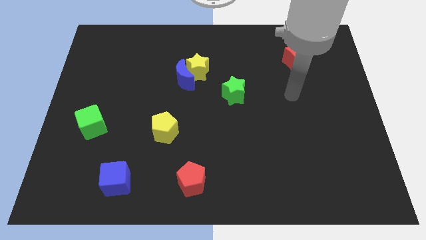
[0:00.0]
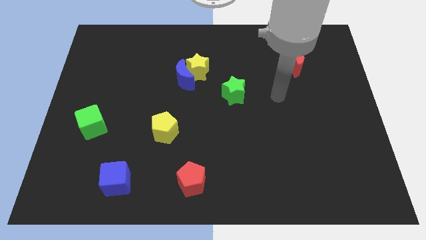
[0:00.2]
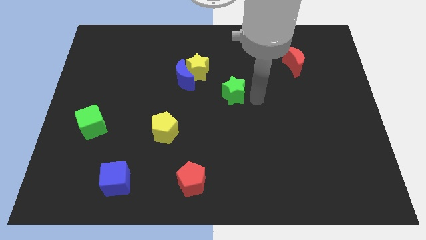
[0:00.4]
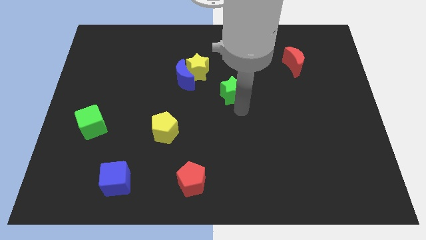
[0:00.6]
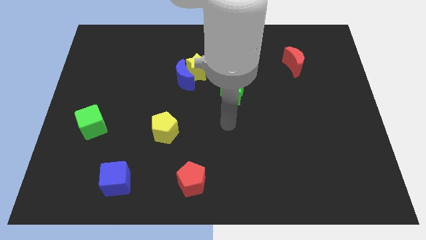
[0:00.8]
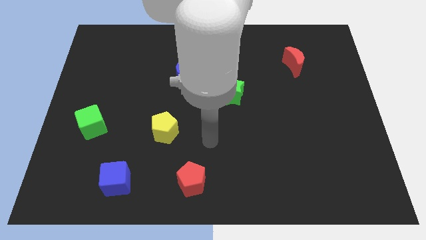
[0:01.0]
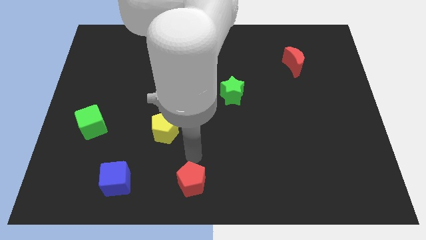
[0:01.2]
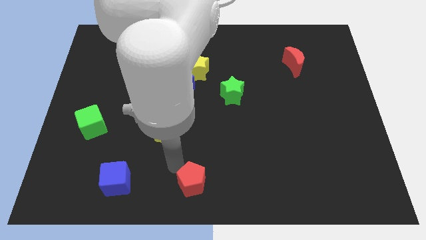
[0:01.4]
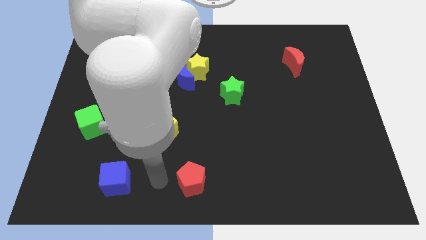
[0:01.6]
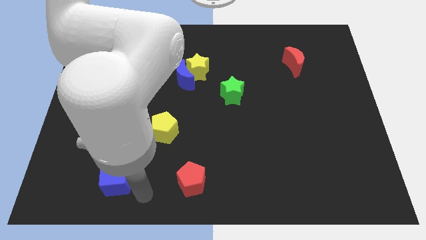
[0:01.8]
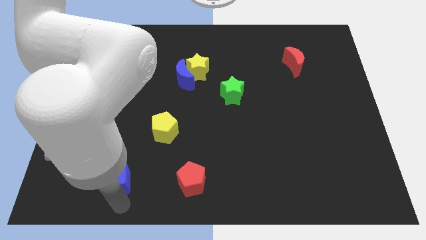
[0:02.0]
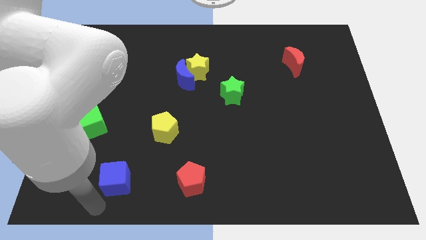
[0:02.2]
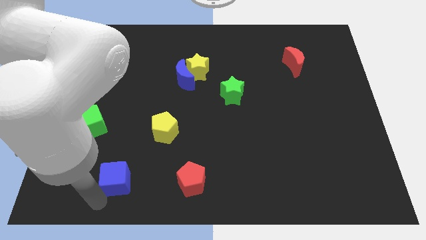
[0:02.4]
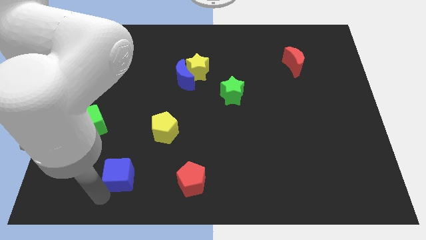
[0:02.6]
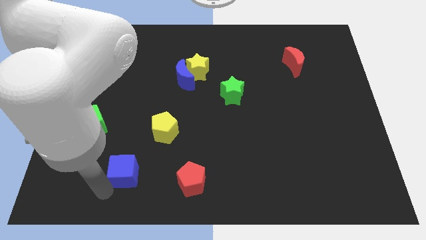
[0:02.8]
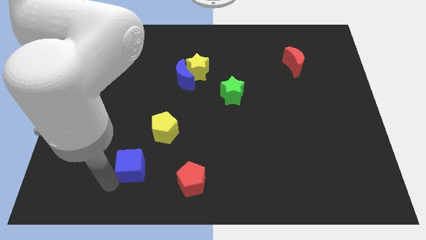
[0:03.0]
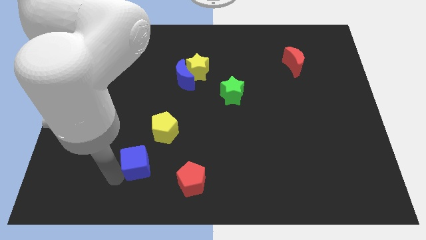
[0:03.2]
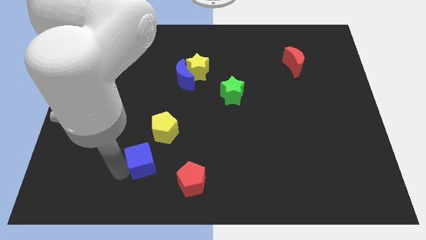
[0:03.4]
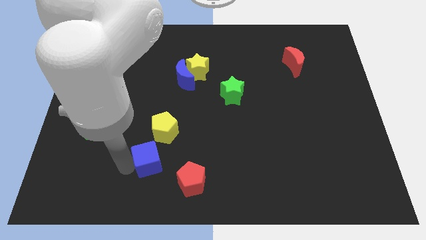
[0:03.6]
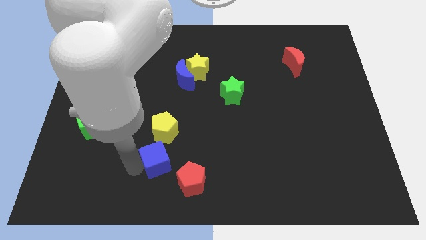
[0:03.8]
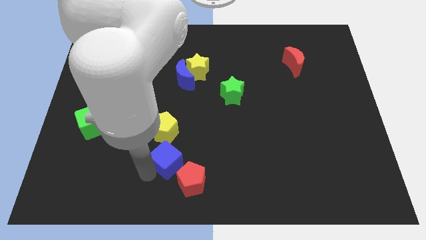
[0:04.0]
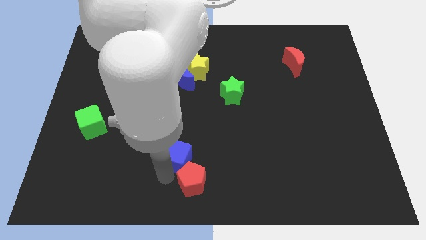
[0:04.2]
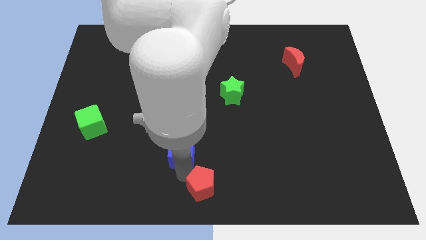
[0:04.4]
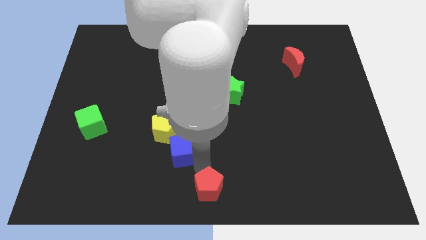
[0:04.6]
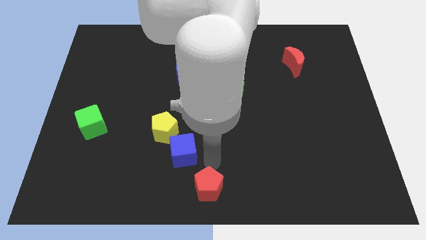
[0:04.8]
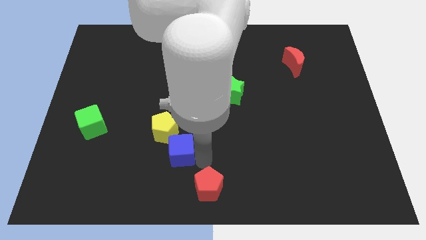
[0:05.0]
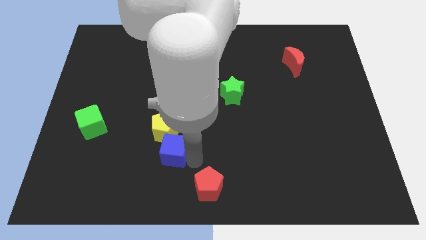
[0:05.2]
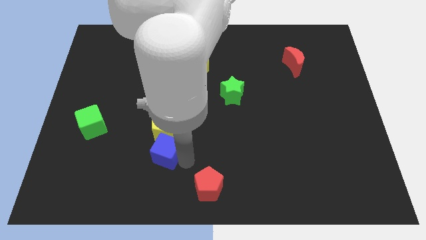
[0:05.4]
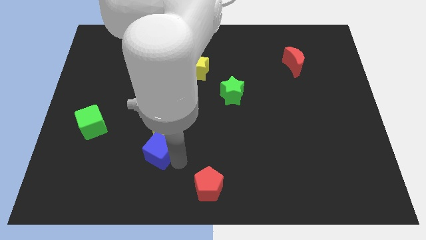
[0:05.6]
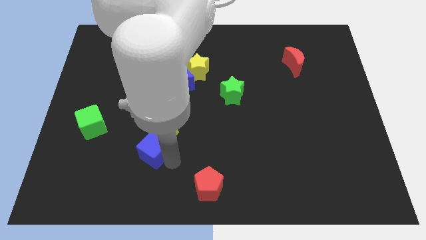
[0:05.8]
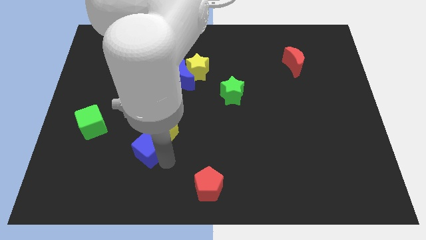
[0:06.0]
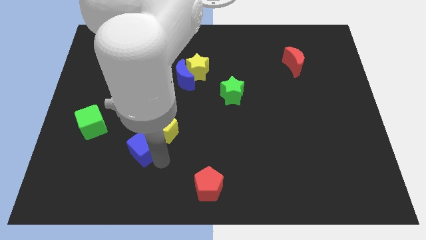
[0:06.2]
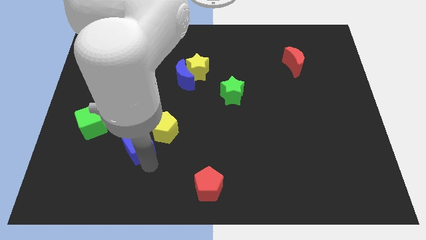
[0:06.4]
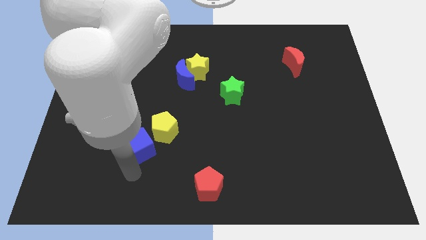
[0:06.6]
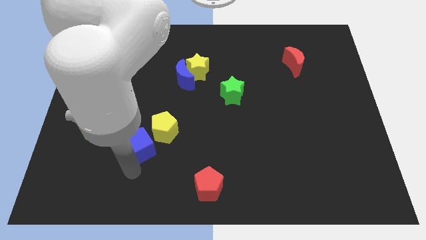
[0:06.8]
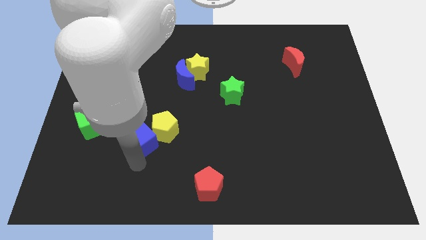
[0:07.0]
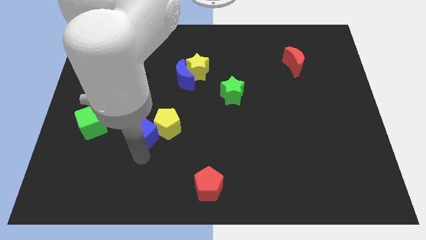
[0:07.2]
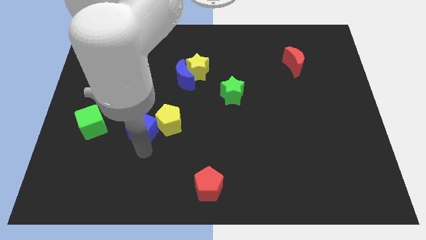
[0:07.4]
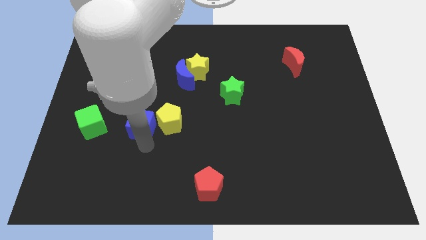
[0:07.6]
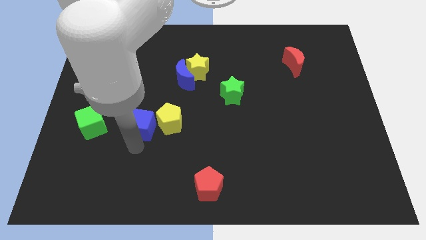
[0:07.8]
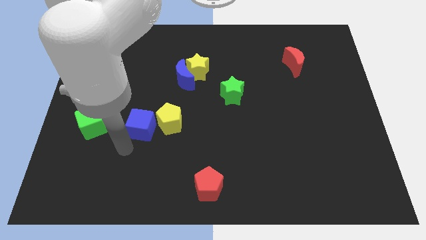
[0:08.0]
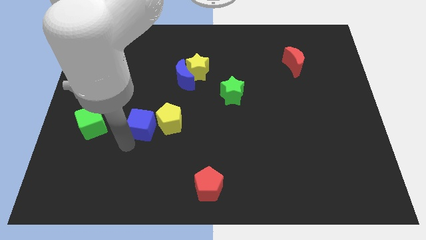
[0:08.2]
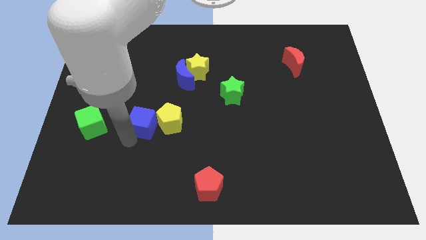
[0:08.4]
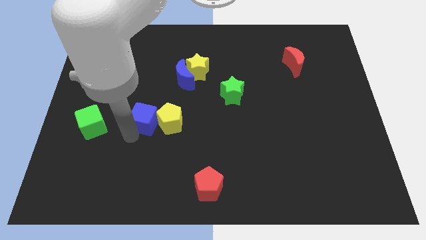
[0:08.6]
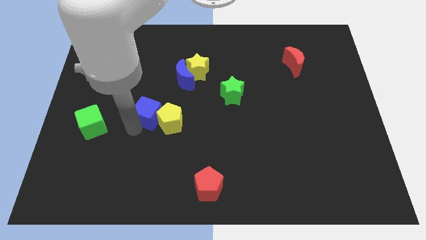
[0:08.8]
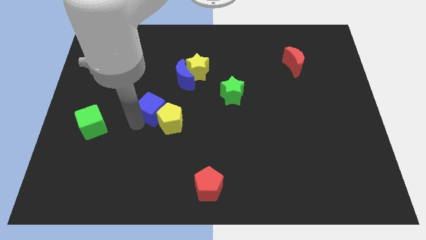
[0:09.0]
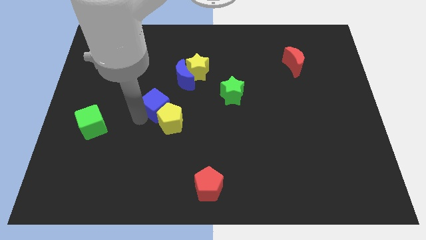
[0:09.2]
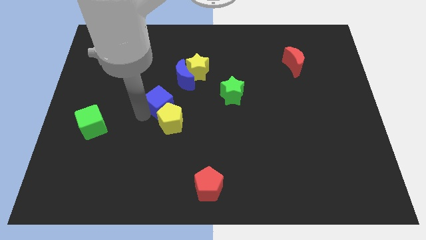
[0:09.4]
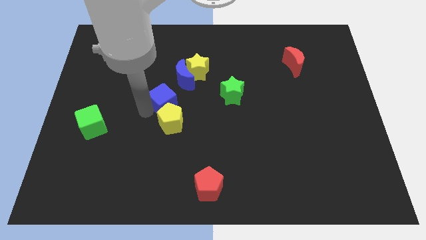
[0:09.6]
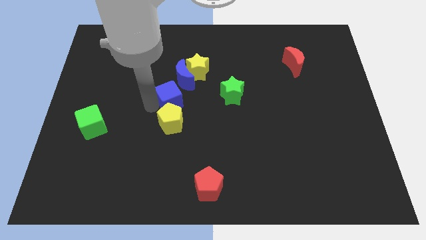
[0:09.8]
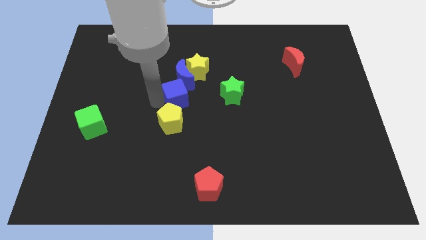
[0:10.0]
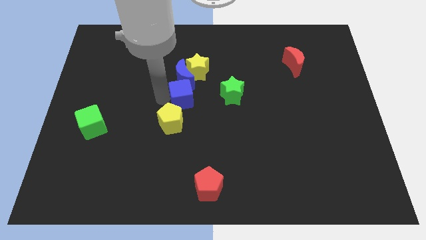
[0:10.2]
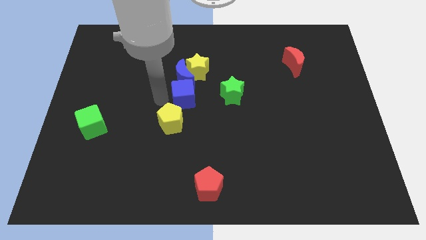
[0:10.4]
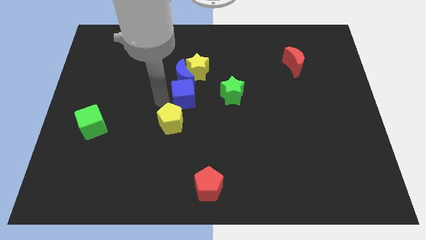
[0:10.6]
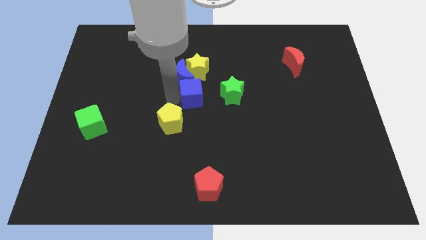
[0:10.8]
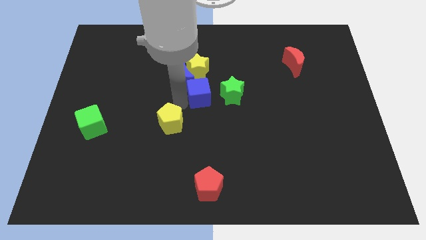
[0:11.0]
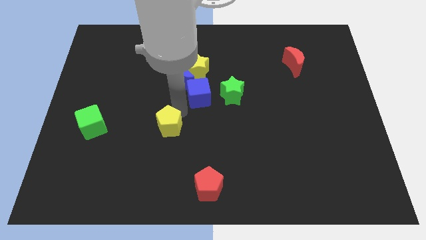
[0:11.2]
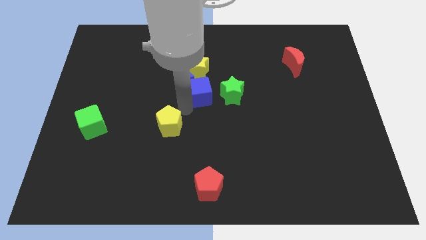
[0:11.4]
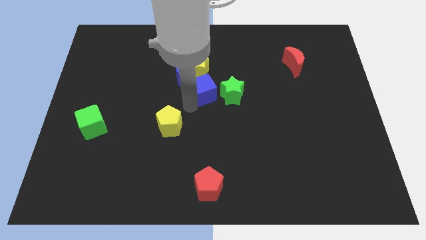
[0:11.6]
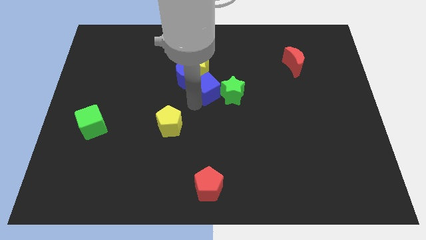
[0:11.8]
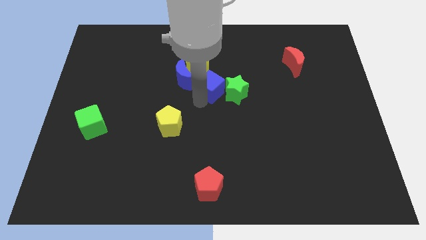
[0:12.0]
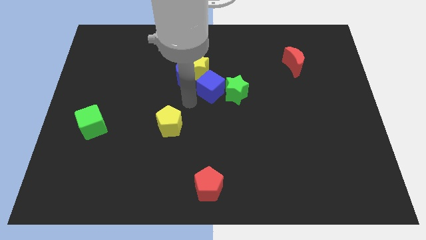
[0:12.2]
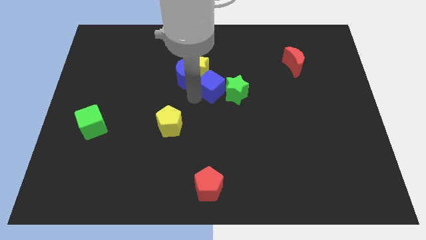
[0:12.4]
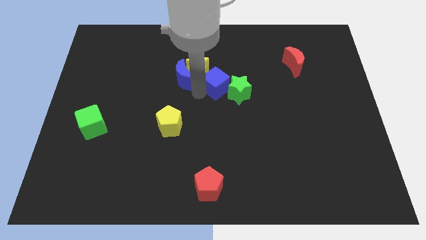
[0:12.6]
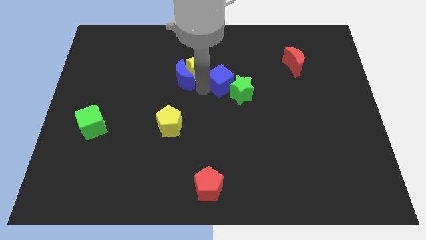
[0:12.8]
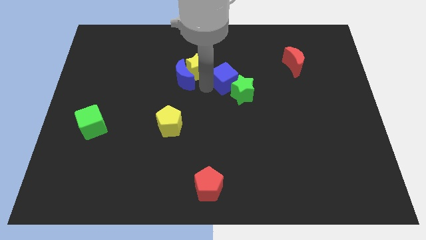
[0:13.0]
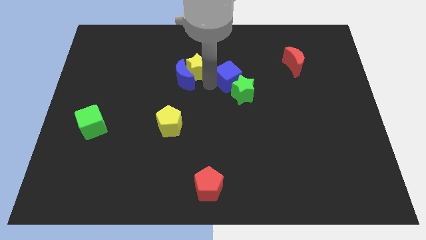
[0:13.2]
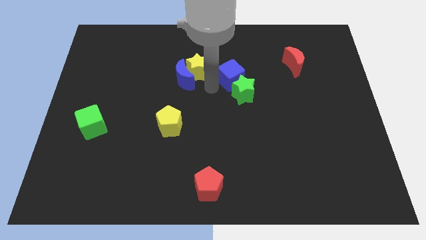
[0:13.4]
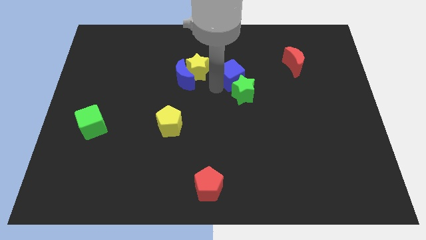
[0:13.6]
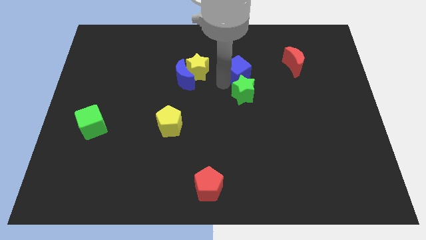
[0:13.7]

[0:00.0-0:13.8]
put the blue cube to the left side of the red moon

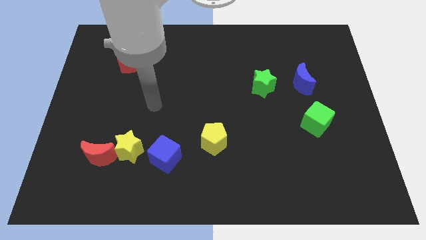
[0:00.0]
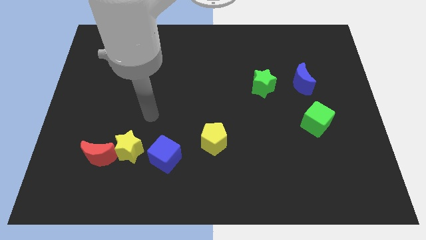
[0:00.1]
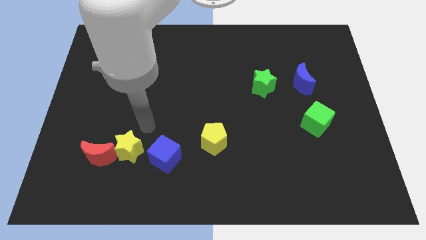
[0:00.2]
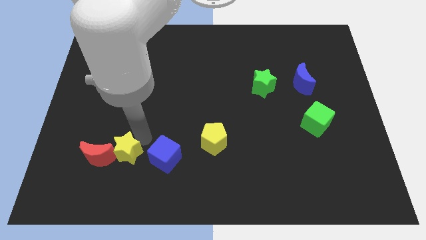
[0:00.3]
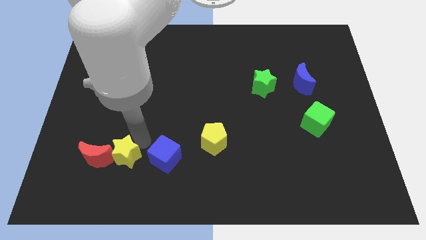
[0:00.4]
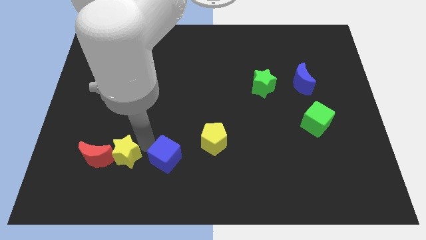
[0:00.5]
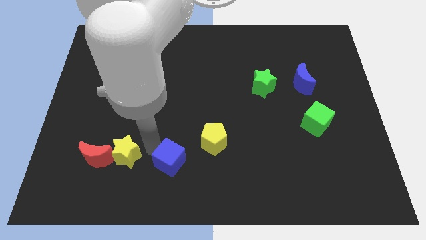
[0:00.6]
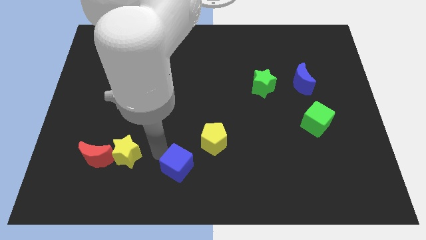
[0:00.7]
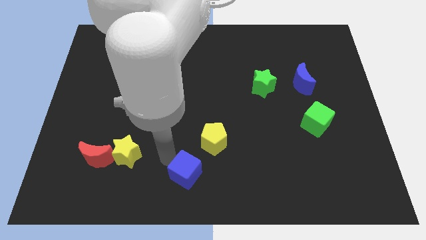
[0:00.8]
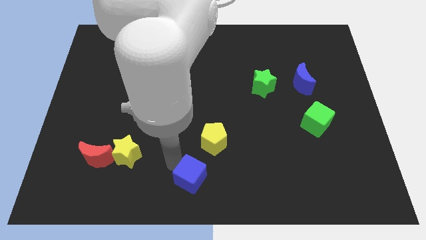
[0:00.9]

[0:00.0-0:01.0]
put the blue cube below the yellow pentagon
